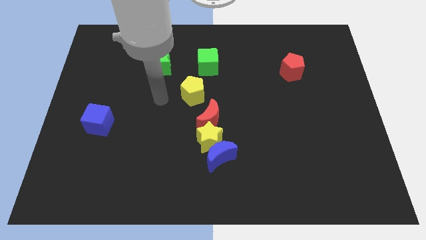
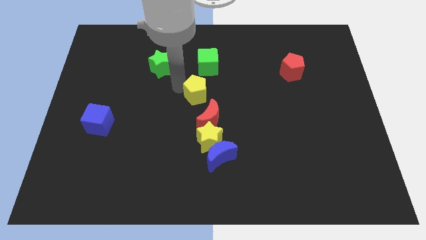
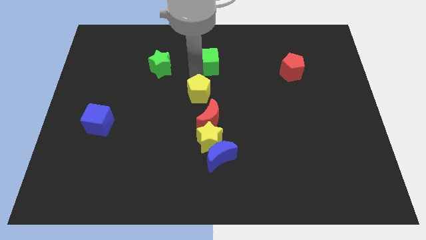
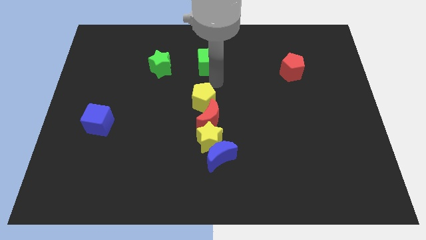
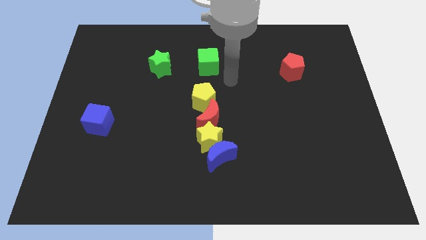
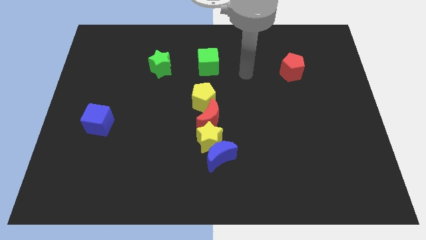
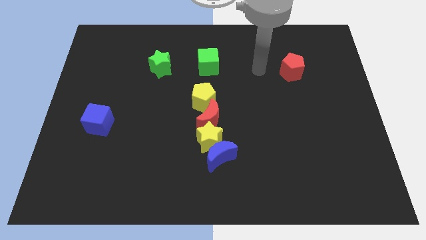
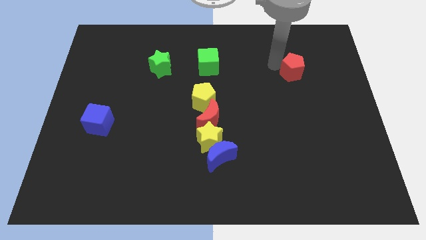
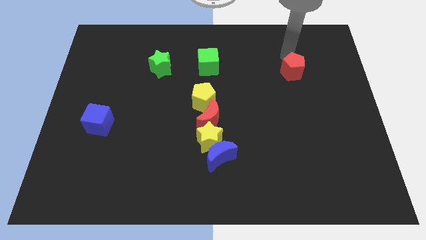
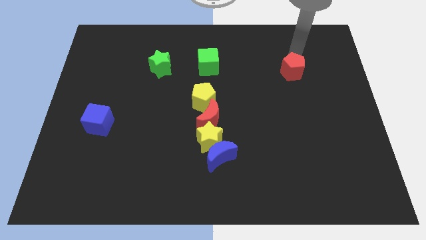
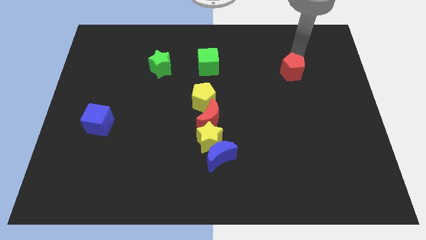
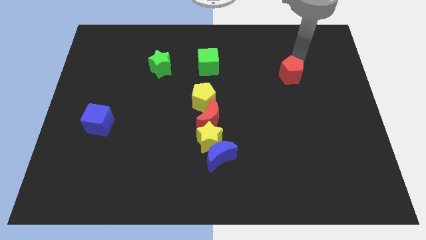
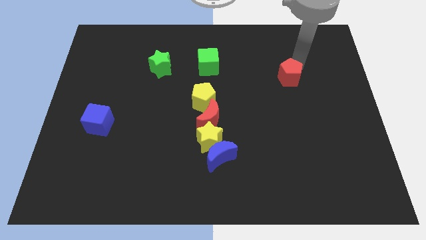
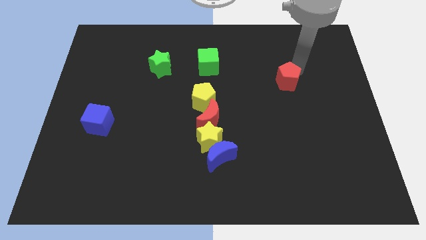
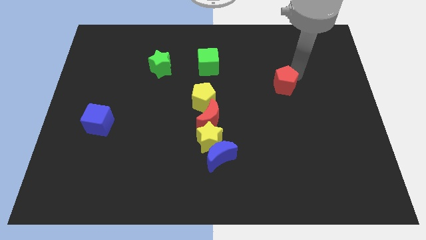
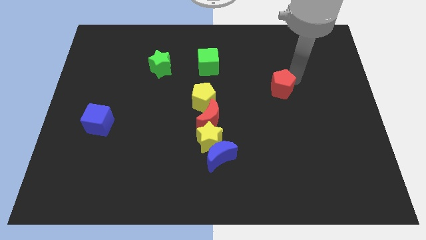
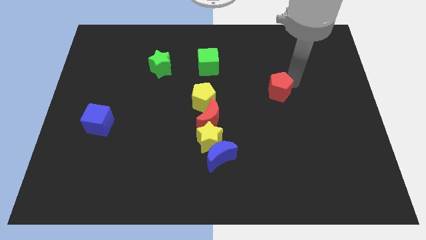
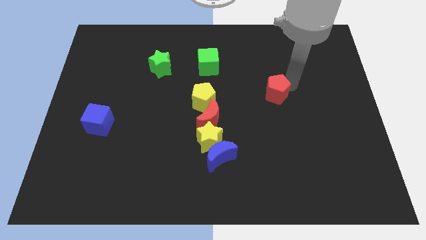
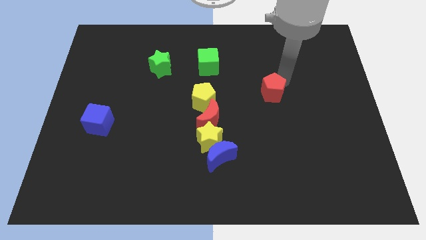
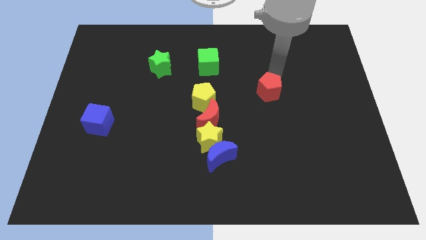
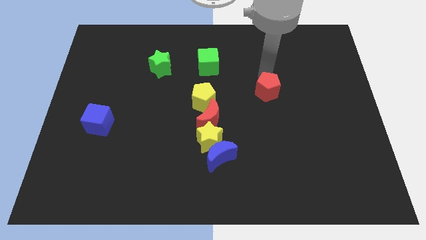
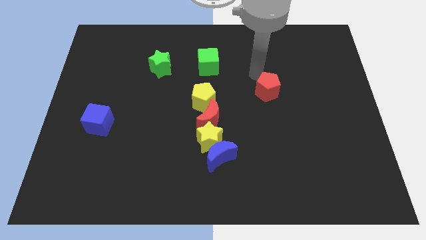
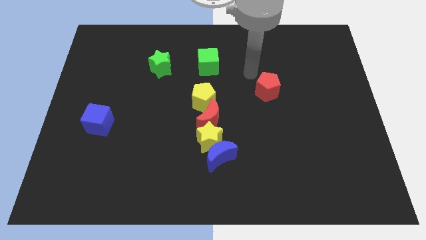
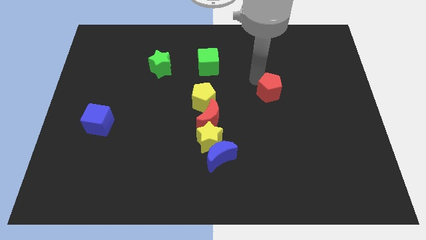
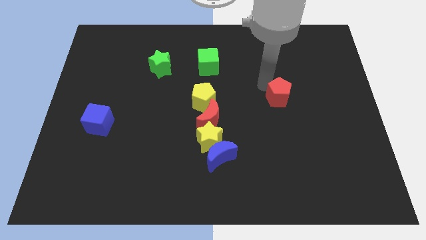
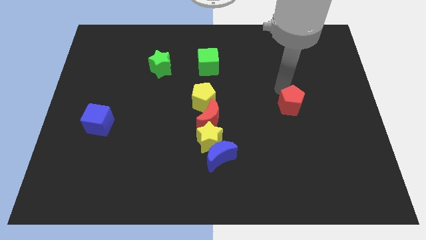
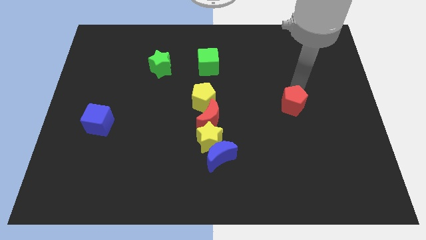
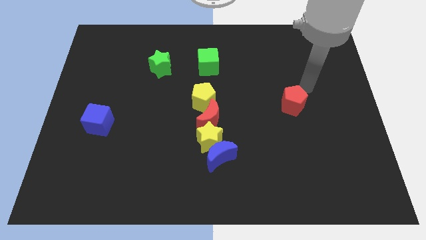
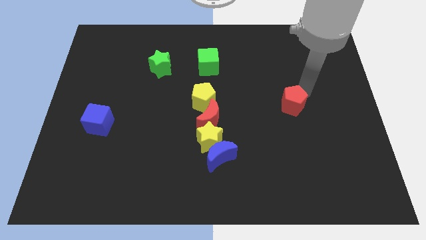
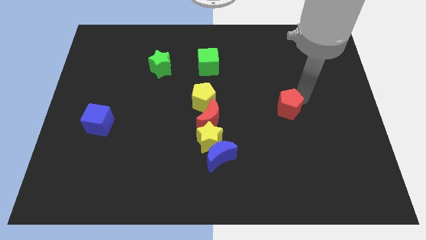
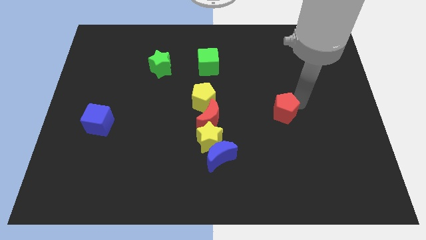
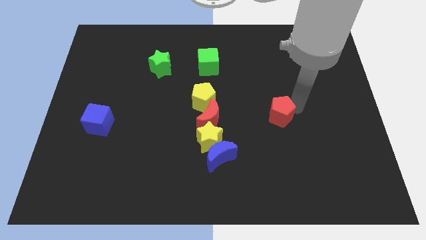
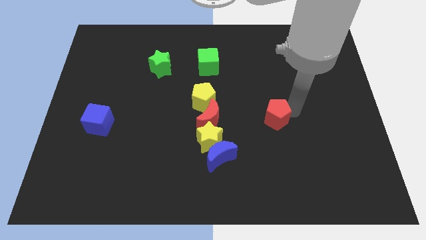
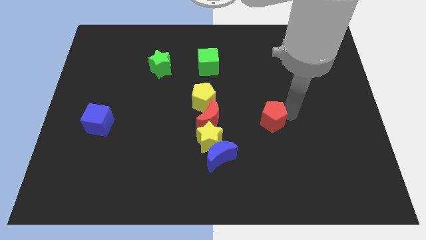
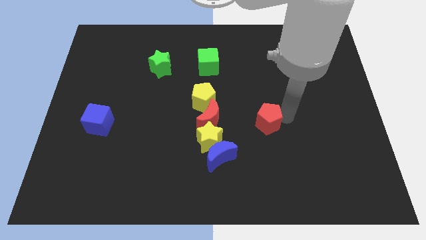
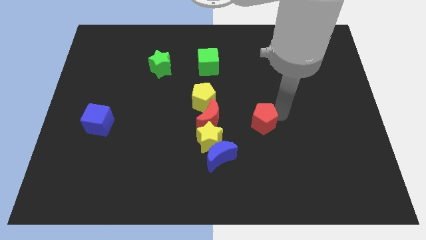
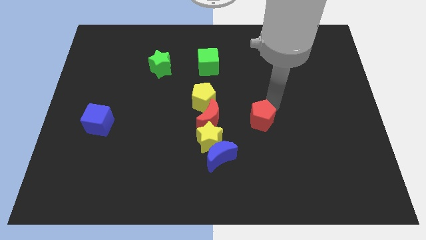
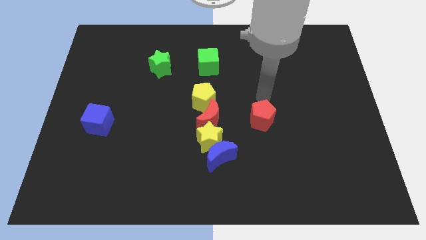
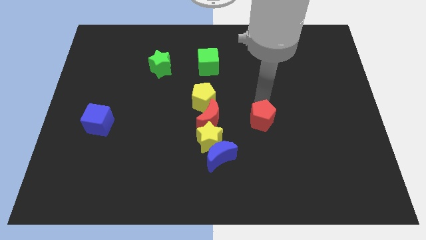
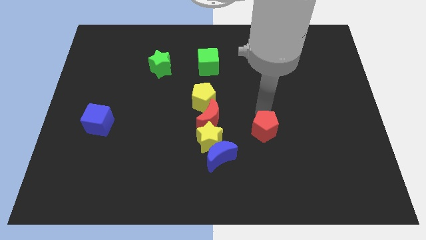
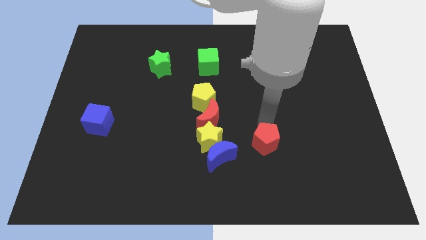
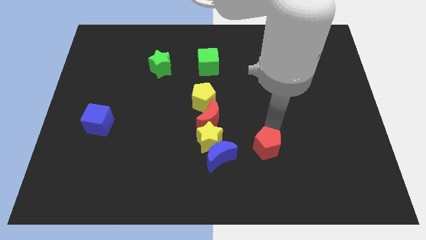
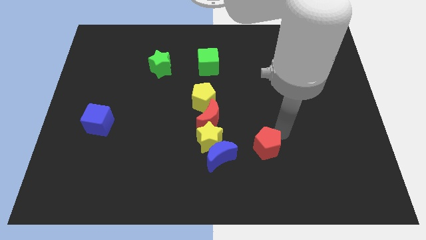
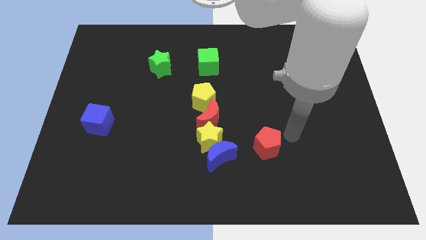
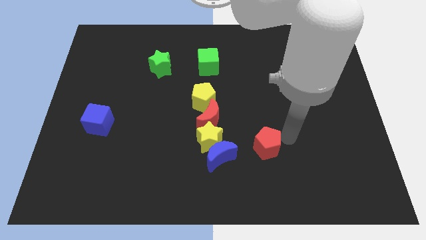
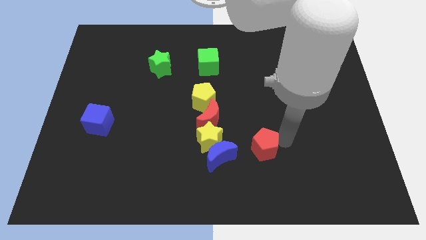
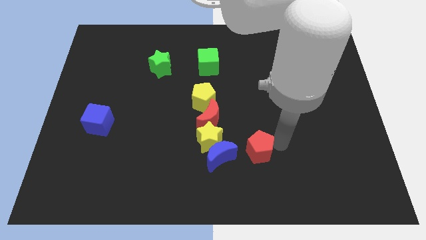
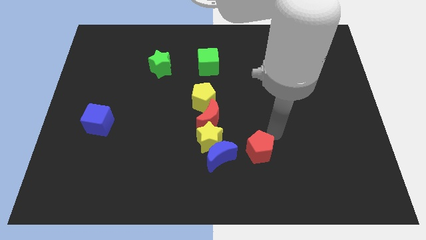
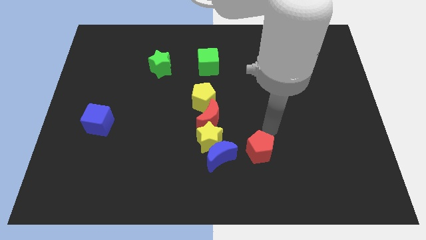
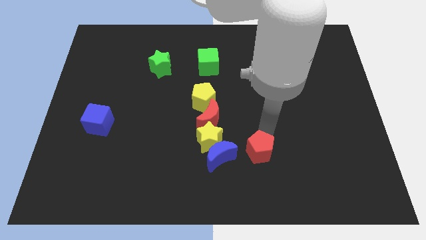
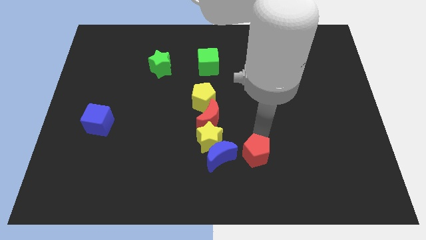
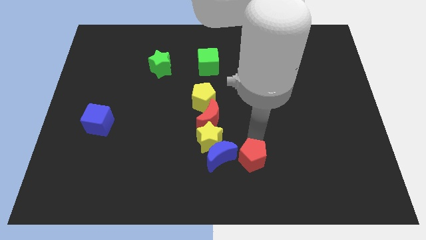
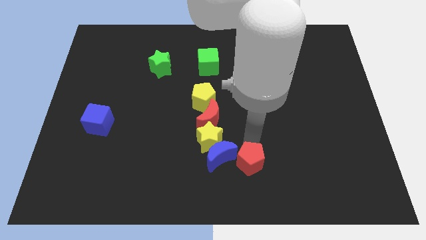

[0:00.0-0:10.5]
put the red pentagon to the bottom

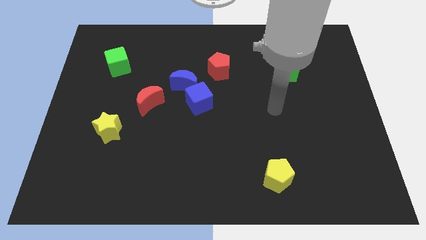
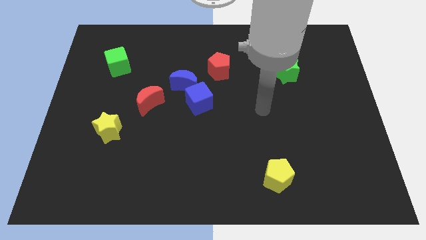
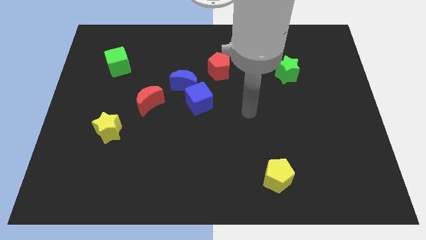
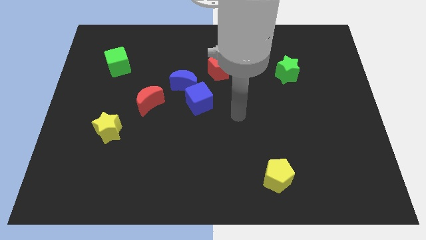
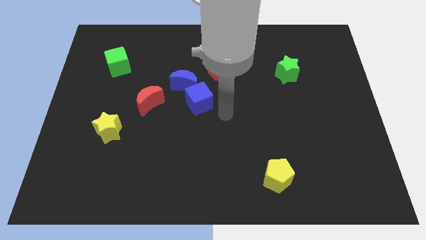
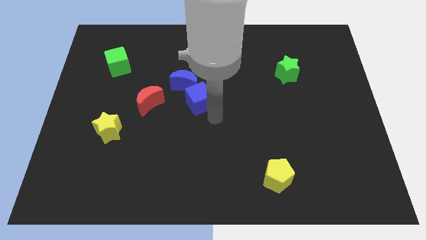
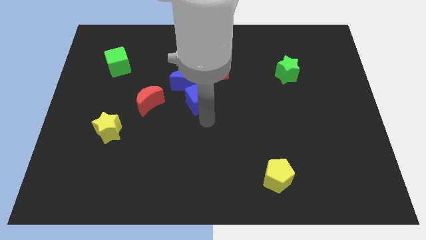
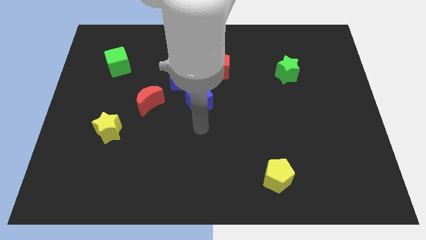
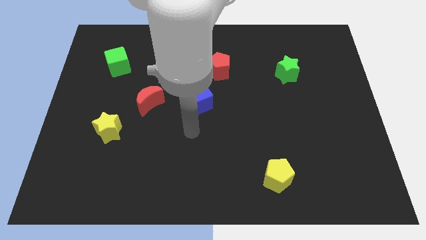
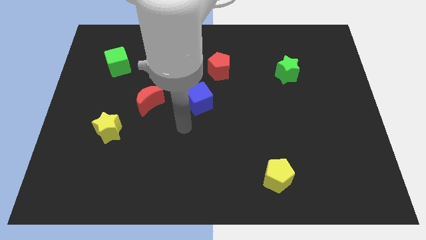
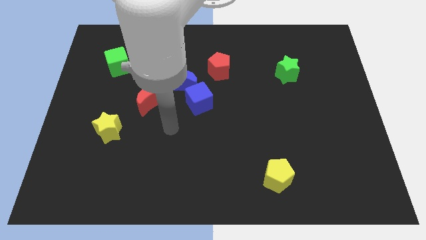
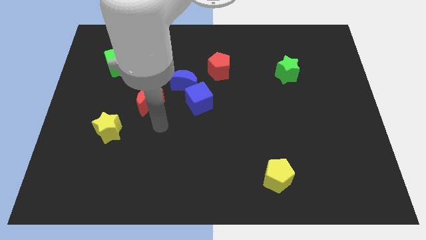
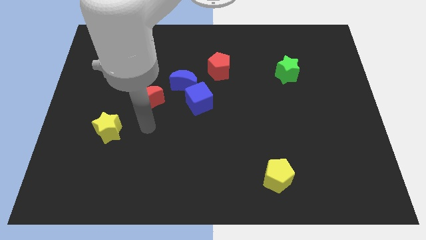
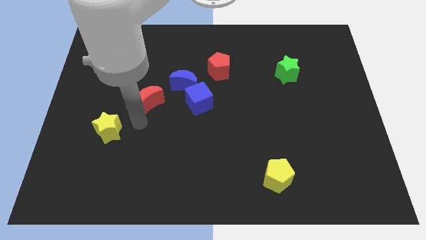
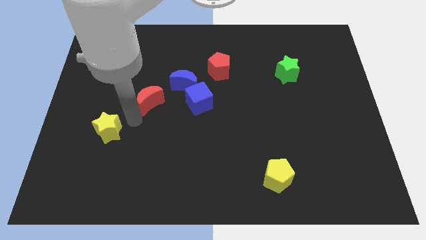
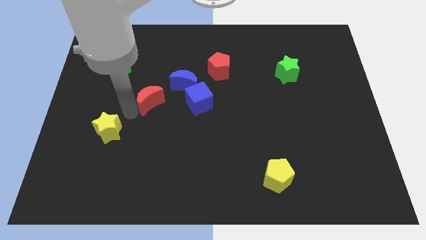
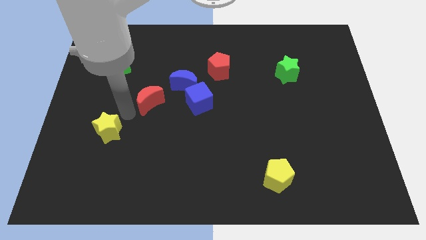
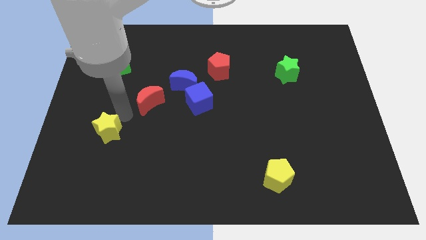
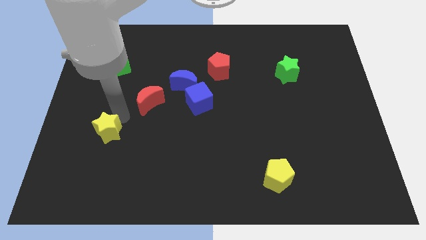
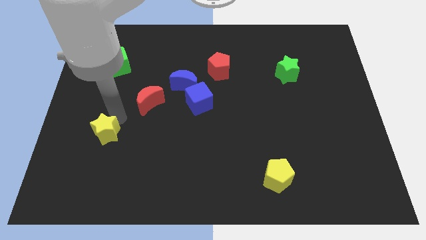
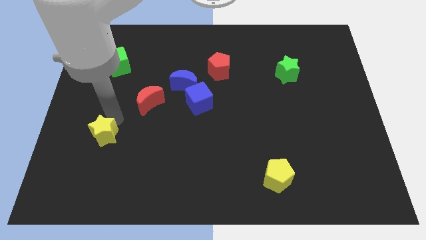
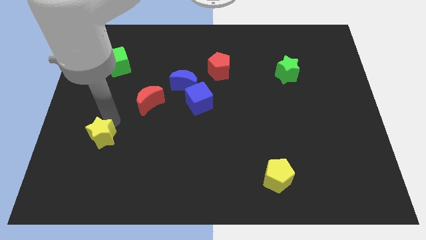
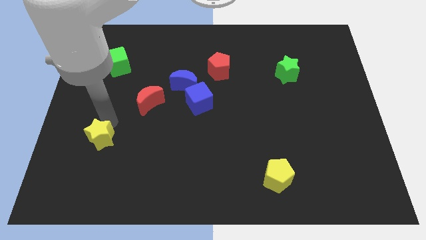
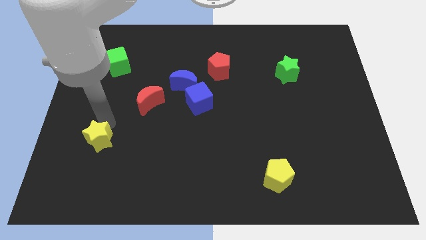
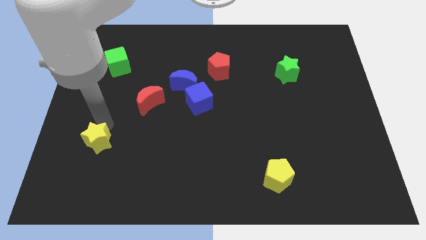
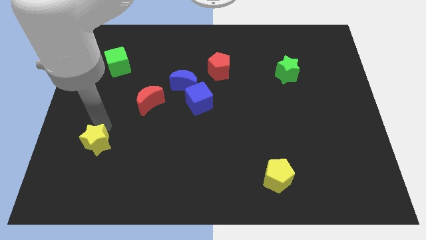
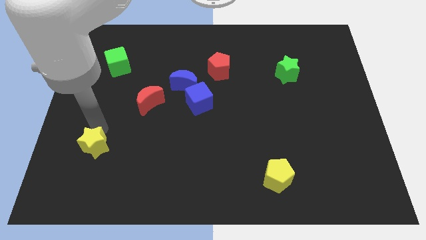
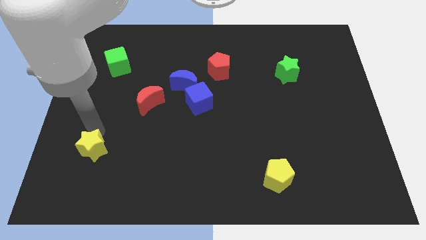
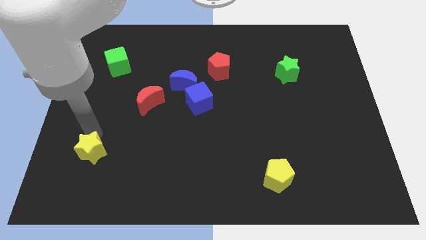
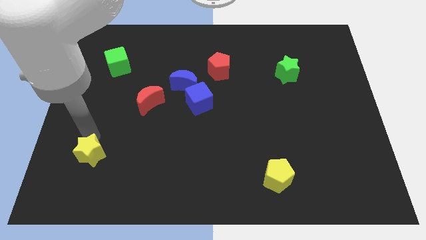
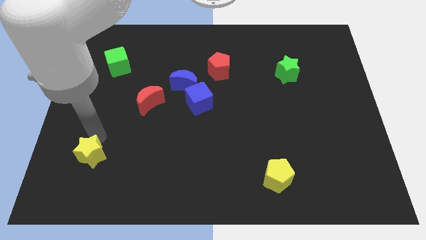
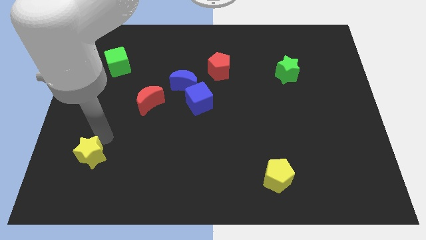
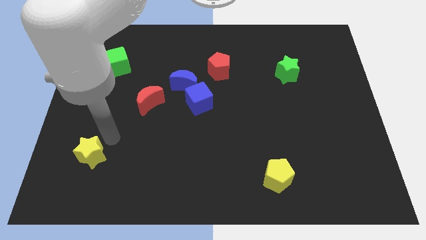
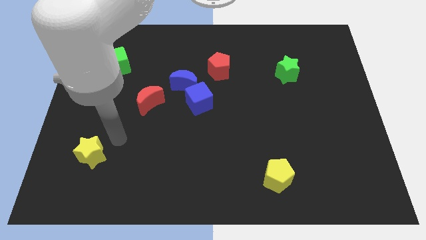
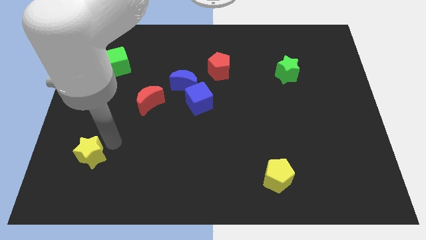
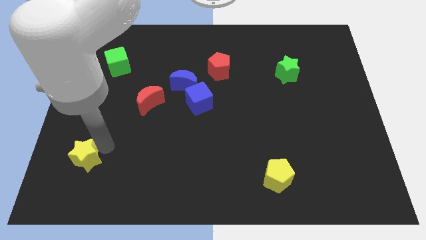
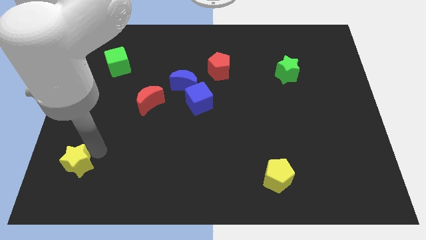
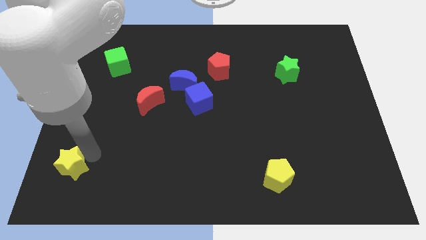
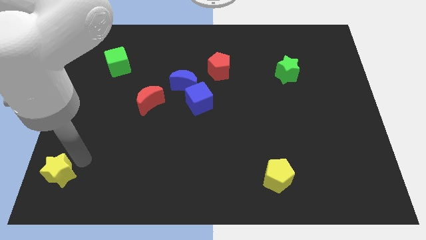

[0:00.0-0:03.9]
move the yellow star to the bottom left corner
